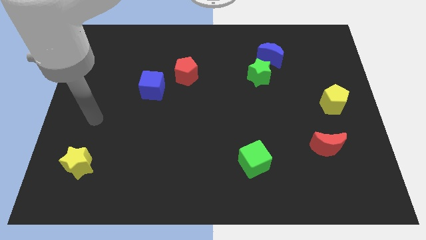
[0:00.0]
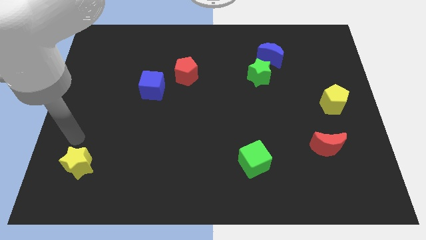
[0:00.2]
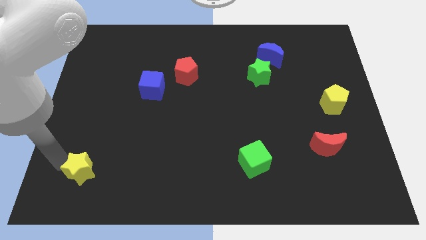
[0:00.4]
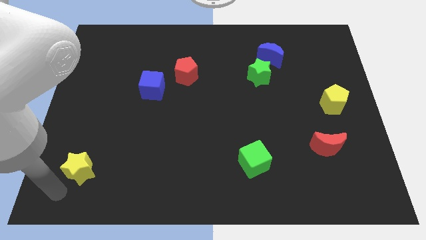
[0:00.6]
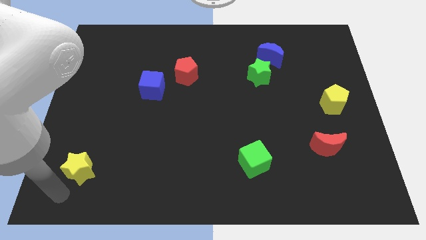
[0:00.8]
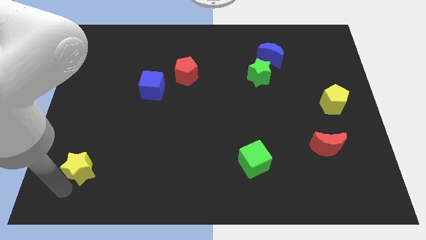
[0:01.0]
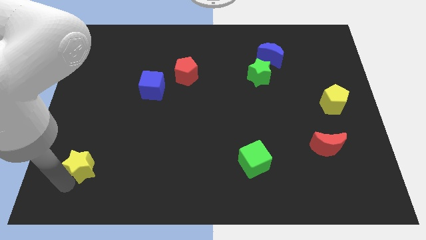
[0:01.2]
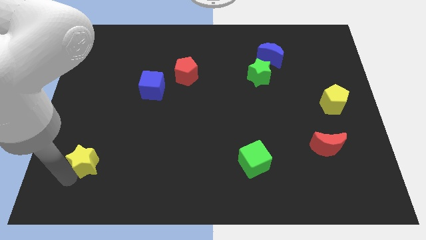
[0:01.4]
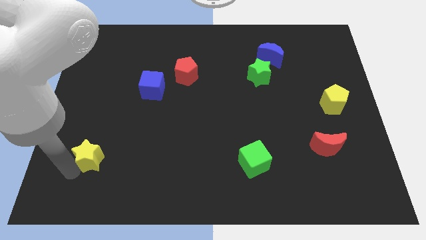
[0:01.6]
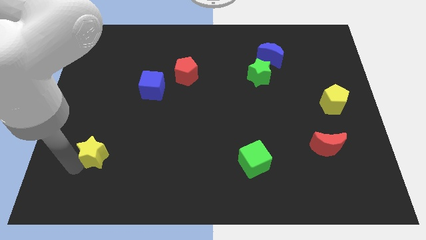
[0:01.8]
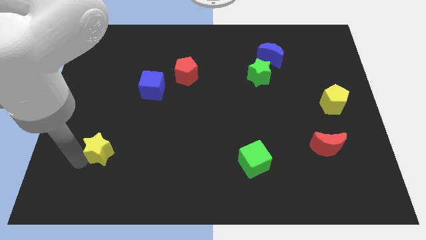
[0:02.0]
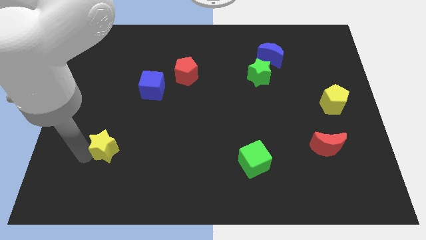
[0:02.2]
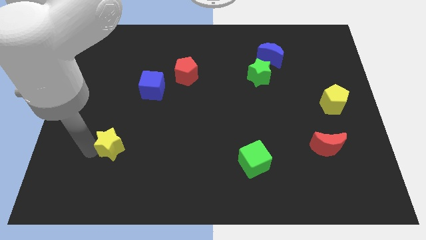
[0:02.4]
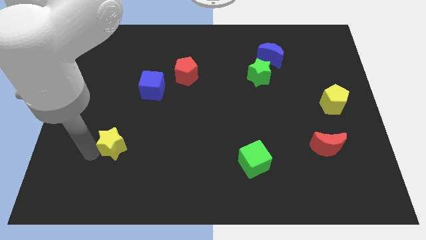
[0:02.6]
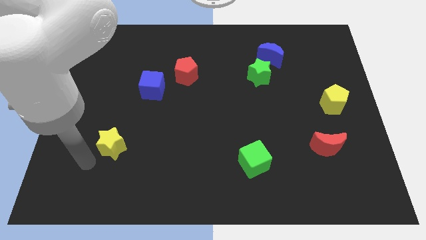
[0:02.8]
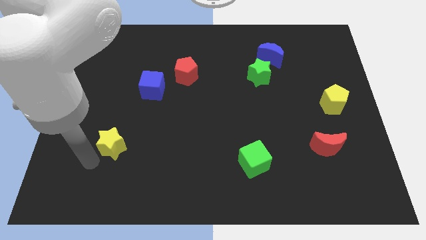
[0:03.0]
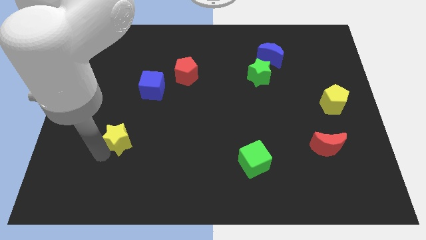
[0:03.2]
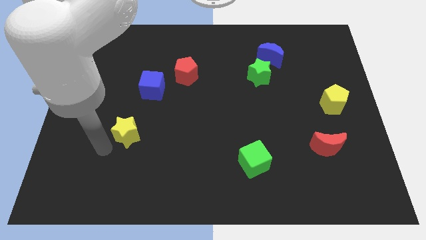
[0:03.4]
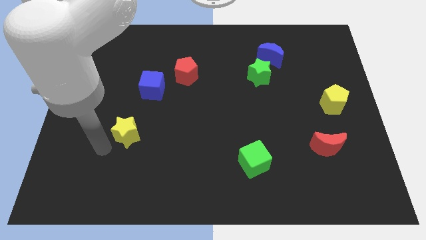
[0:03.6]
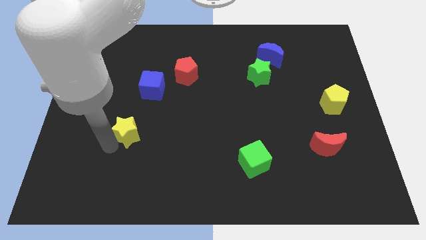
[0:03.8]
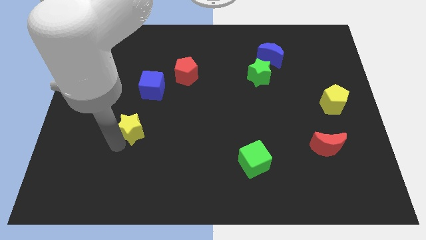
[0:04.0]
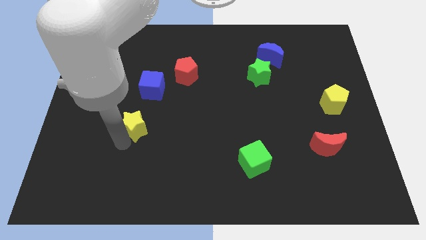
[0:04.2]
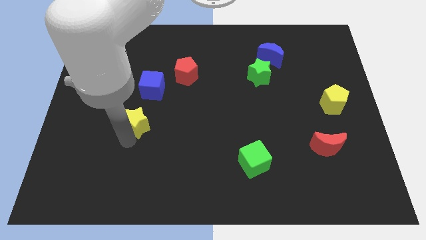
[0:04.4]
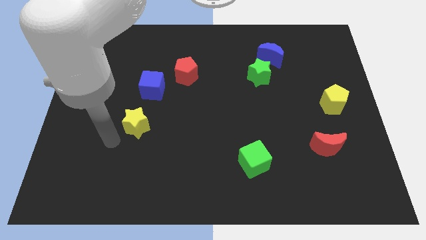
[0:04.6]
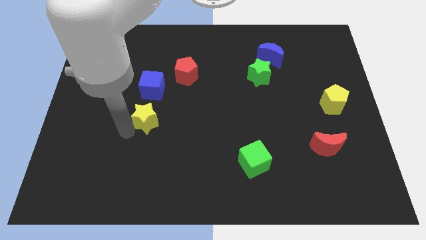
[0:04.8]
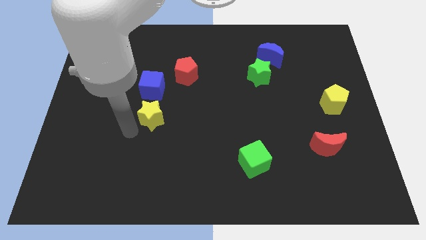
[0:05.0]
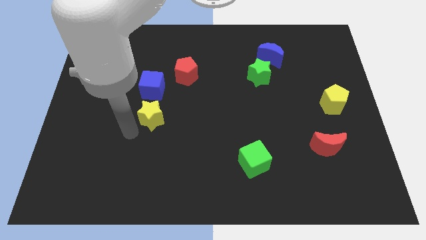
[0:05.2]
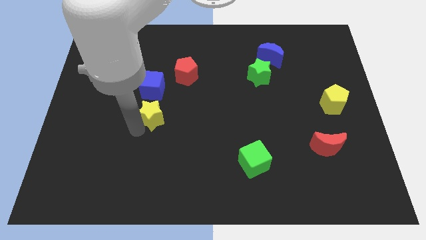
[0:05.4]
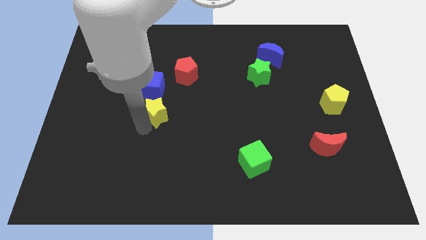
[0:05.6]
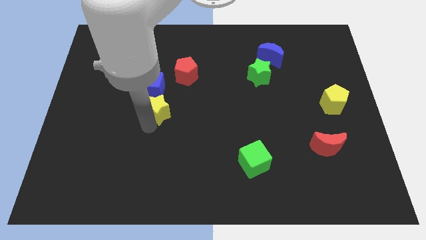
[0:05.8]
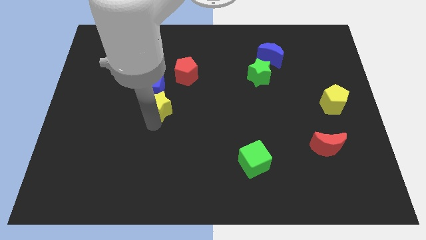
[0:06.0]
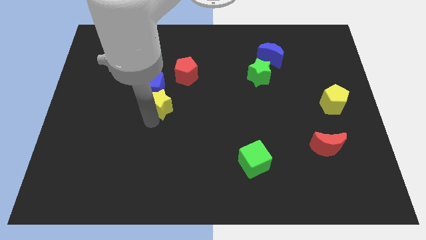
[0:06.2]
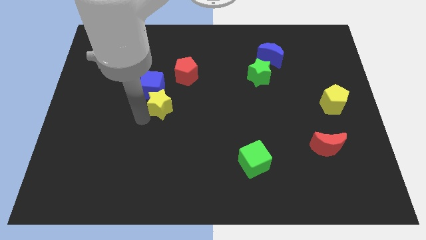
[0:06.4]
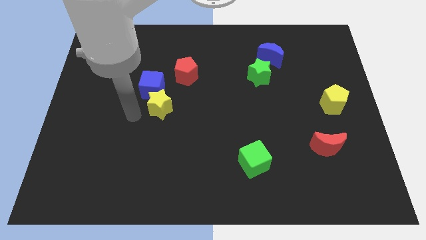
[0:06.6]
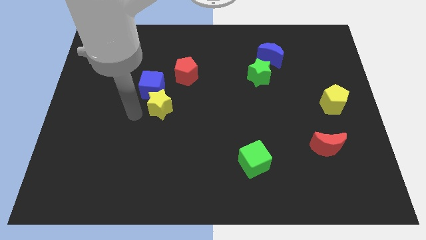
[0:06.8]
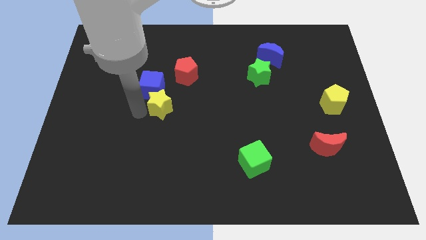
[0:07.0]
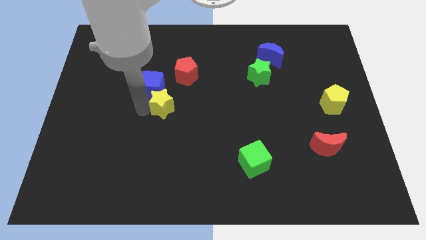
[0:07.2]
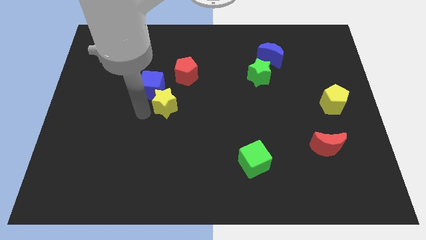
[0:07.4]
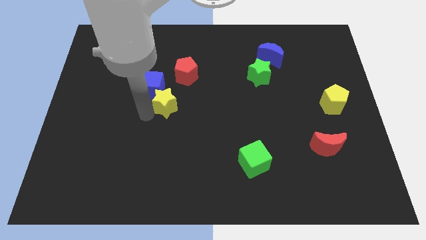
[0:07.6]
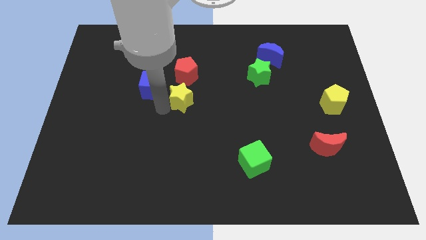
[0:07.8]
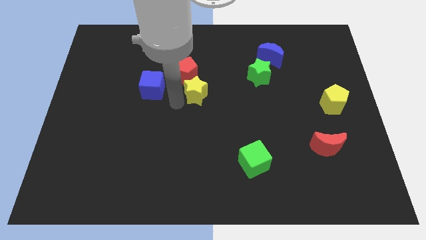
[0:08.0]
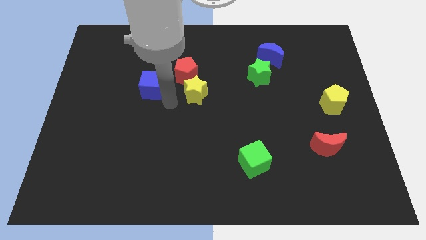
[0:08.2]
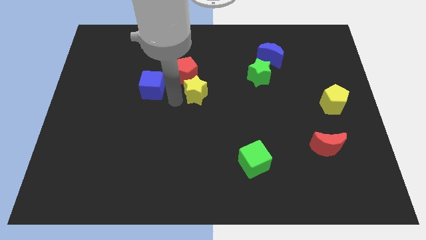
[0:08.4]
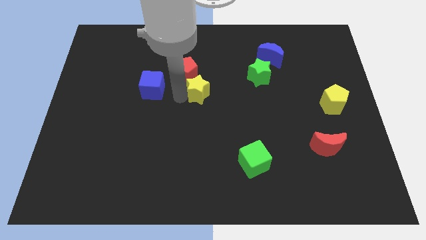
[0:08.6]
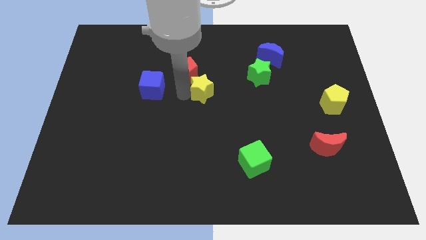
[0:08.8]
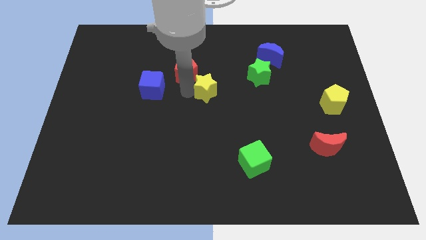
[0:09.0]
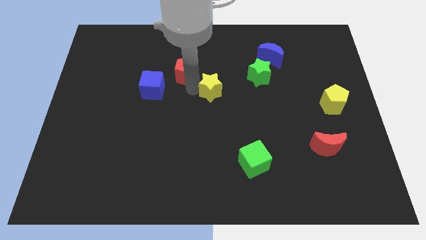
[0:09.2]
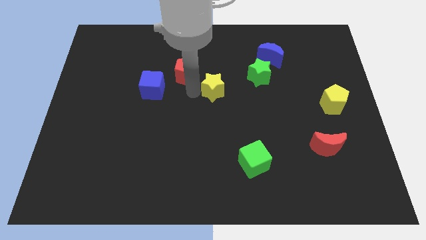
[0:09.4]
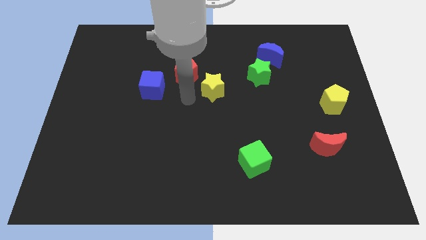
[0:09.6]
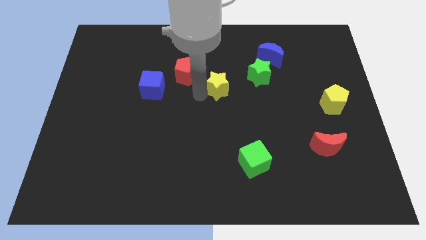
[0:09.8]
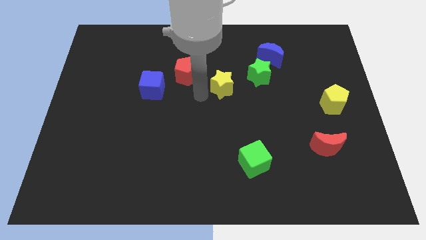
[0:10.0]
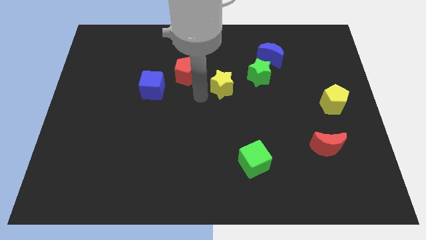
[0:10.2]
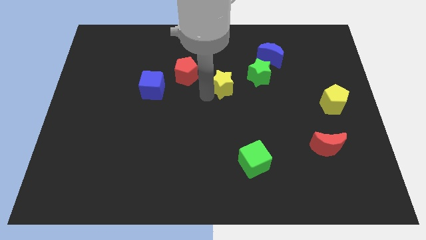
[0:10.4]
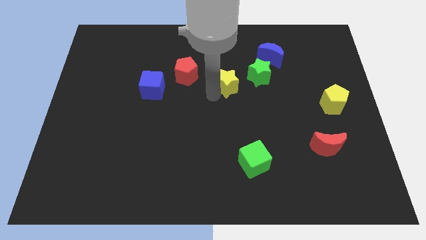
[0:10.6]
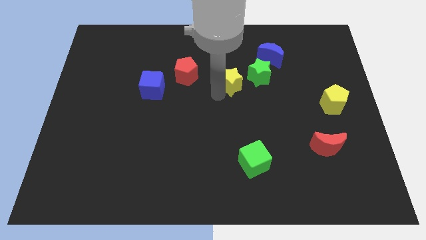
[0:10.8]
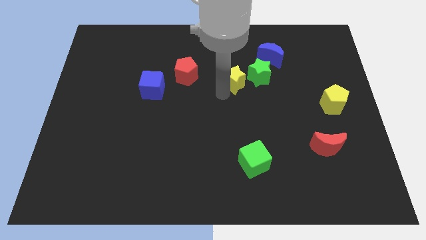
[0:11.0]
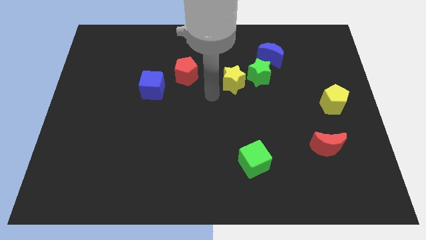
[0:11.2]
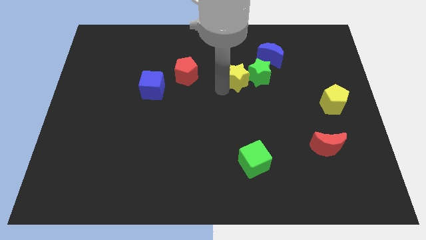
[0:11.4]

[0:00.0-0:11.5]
move the yellow star diagonally down and to the left of the blue moon
